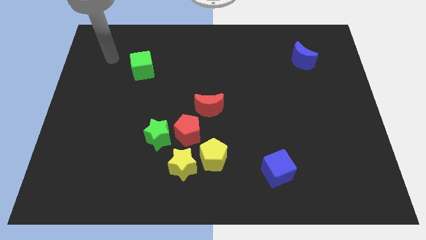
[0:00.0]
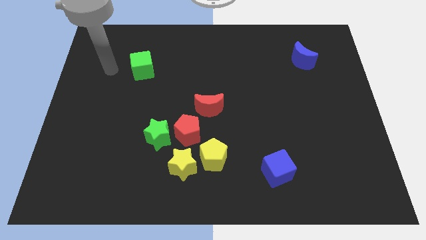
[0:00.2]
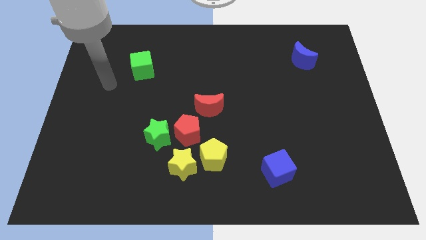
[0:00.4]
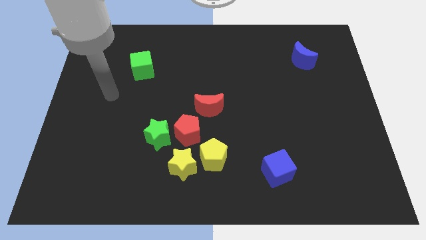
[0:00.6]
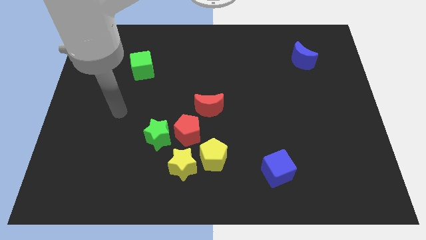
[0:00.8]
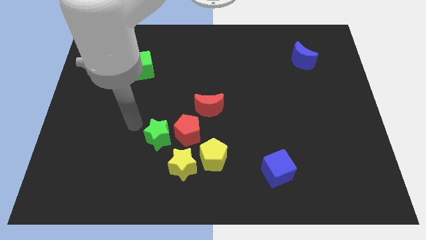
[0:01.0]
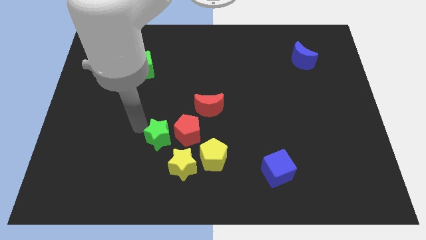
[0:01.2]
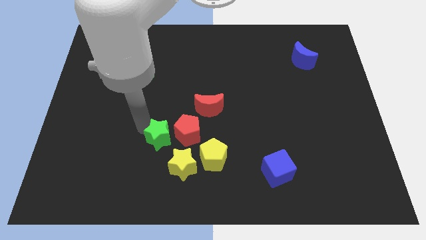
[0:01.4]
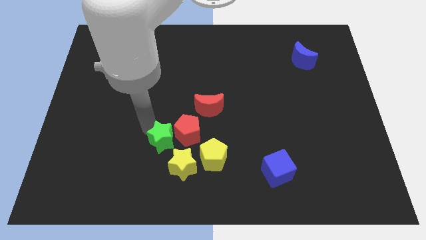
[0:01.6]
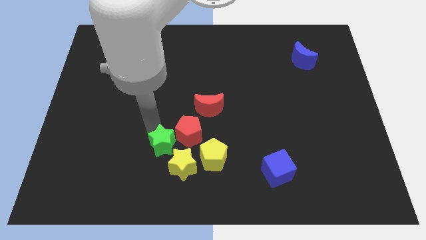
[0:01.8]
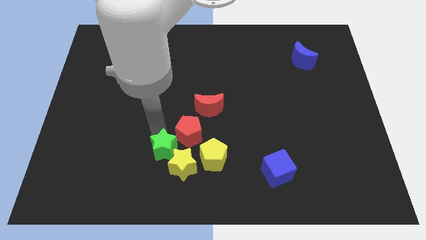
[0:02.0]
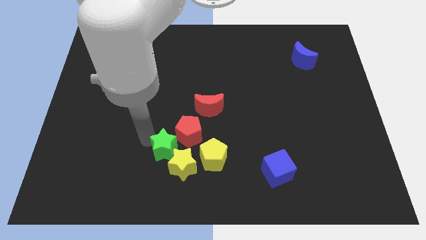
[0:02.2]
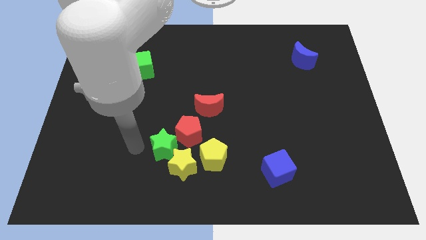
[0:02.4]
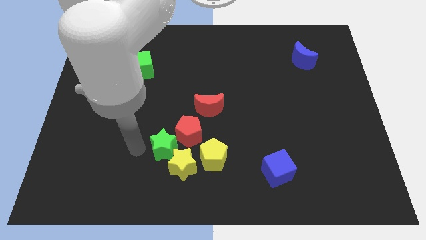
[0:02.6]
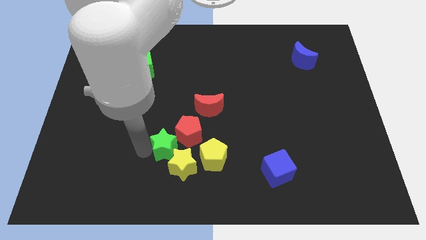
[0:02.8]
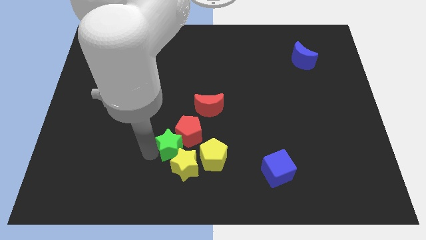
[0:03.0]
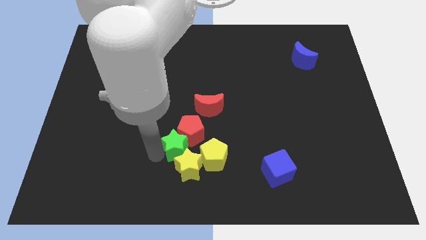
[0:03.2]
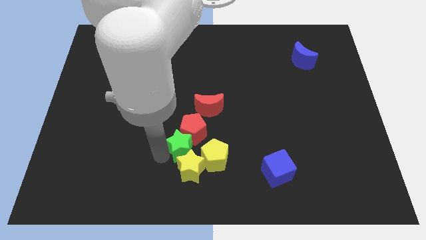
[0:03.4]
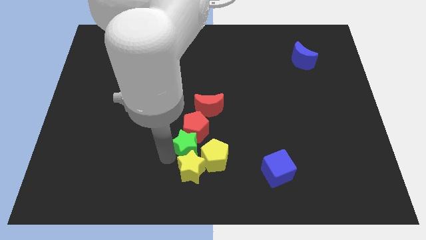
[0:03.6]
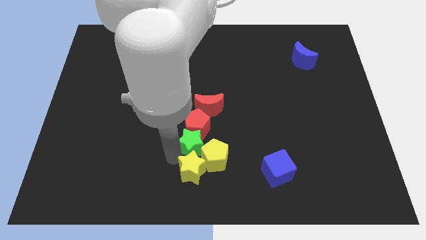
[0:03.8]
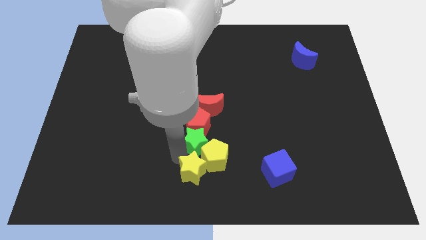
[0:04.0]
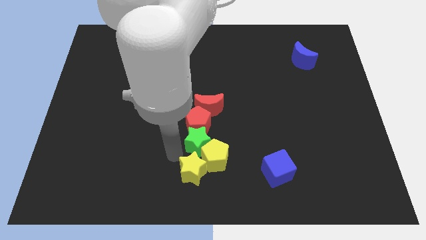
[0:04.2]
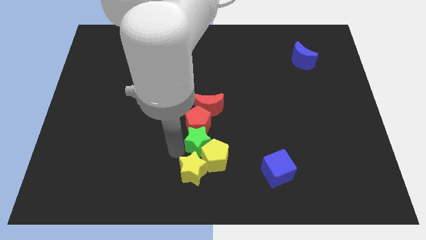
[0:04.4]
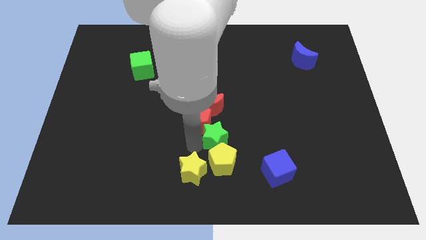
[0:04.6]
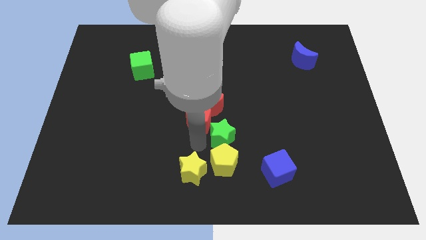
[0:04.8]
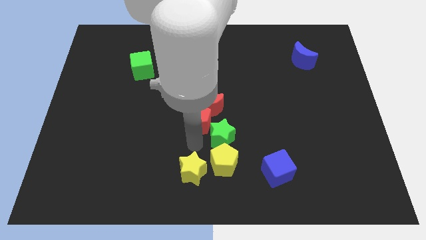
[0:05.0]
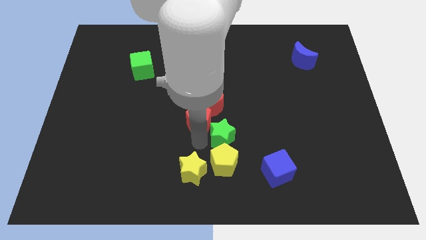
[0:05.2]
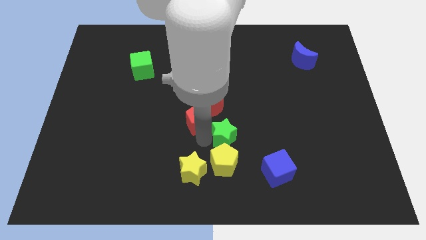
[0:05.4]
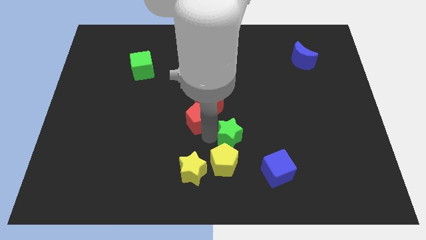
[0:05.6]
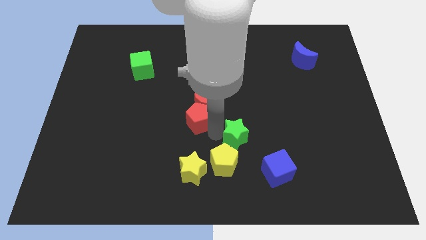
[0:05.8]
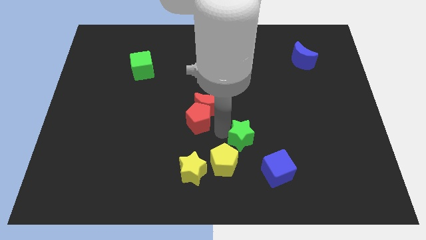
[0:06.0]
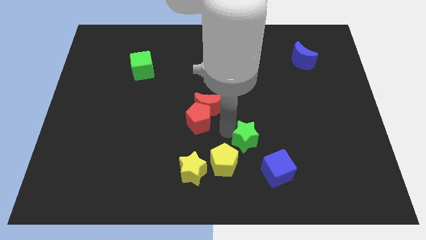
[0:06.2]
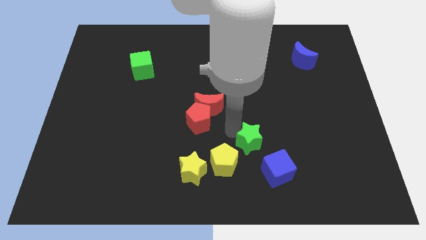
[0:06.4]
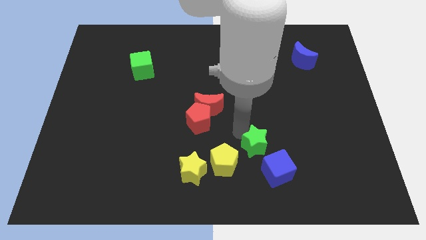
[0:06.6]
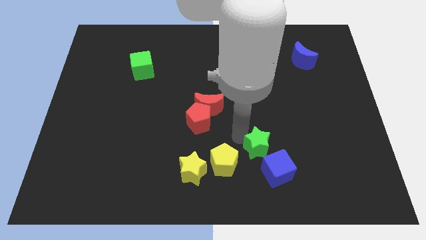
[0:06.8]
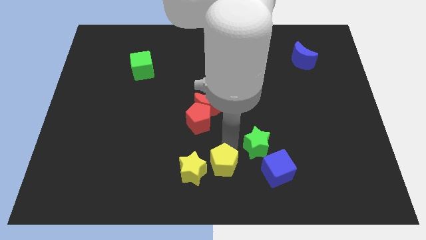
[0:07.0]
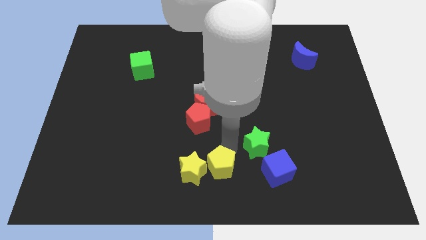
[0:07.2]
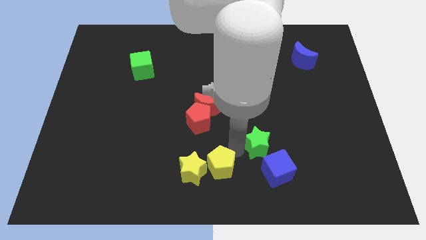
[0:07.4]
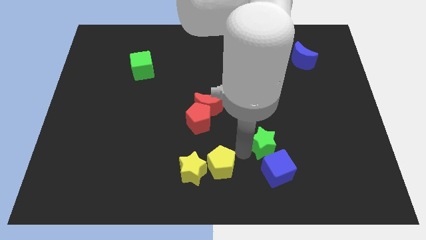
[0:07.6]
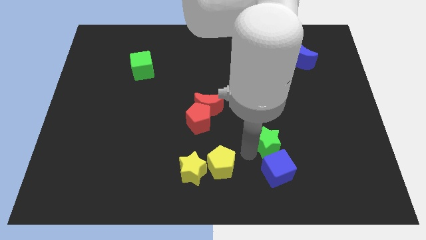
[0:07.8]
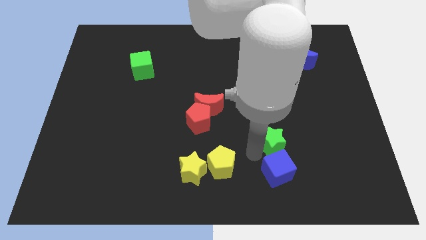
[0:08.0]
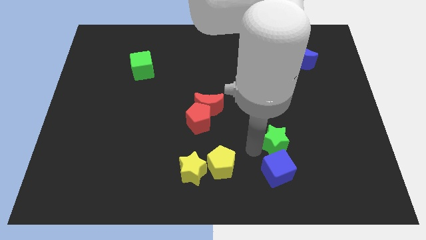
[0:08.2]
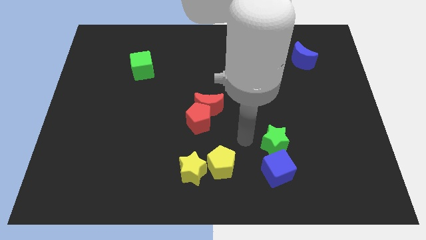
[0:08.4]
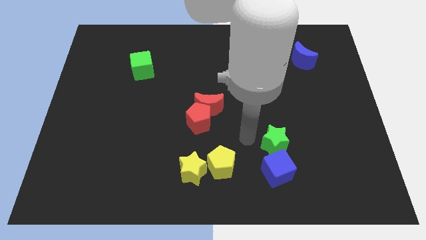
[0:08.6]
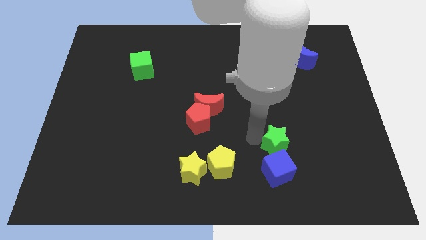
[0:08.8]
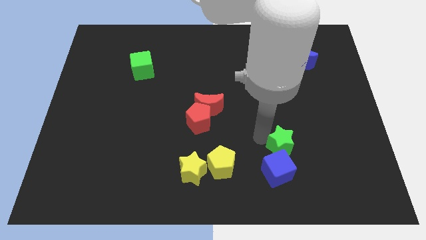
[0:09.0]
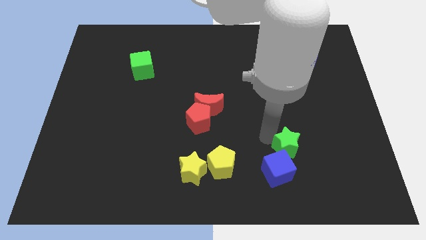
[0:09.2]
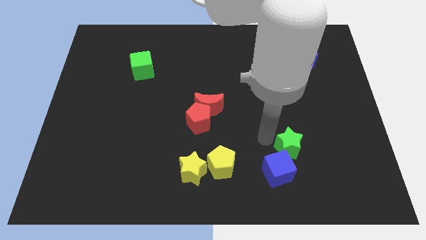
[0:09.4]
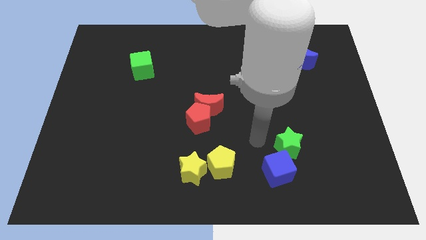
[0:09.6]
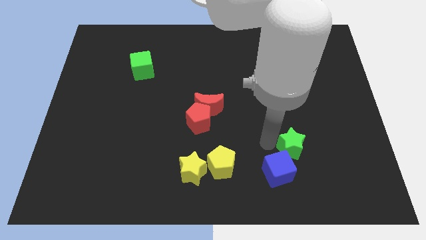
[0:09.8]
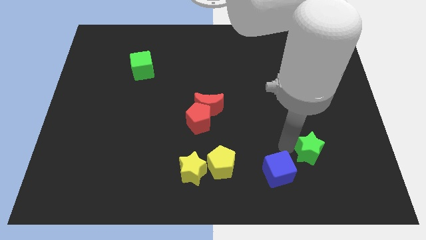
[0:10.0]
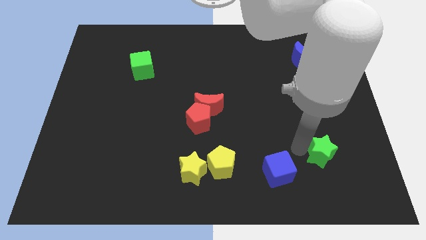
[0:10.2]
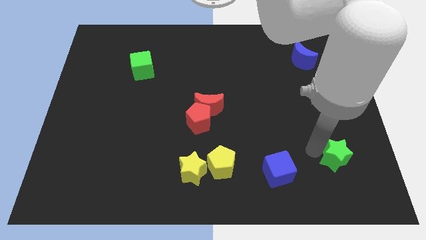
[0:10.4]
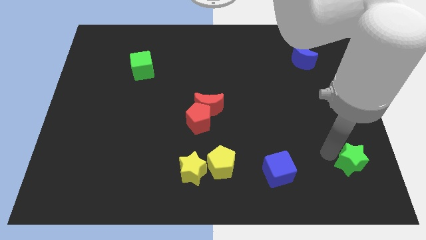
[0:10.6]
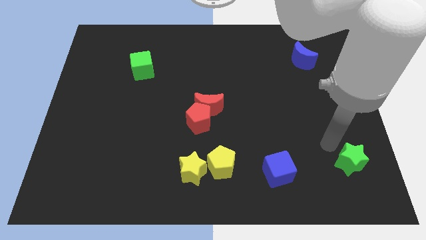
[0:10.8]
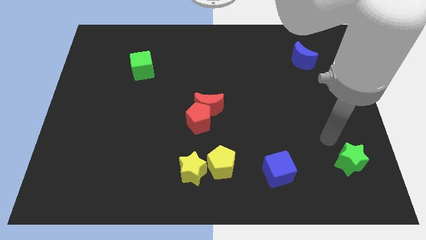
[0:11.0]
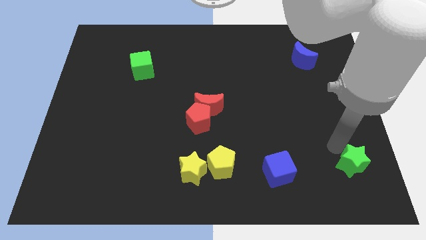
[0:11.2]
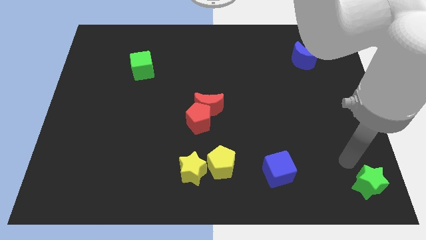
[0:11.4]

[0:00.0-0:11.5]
push the green star to the bottom right of the board
